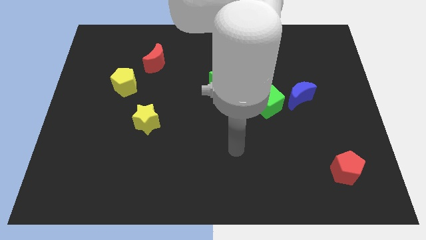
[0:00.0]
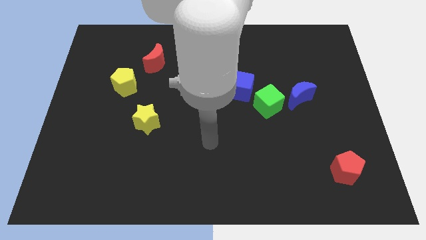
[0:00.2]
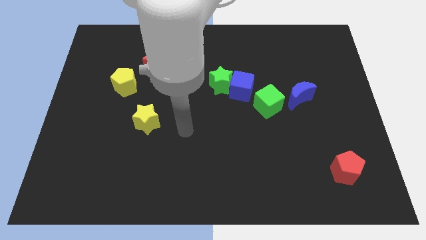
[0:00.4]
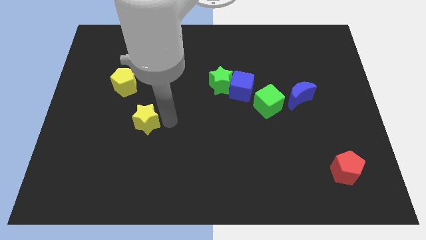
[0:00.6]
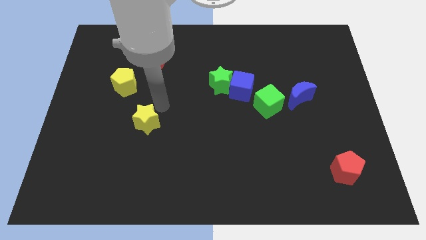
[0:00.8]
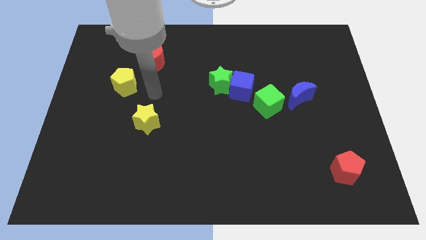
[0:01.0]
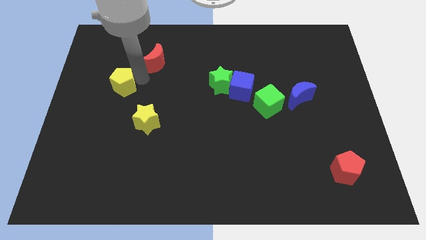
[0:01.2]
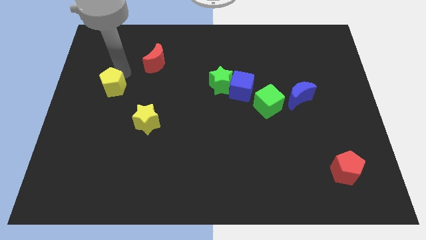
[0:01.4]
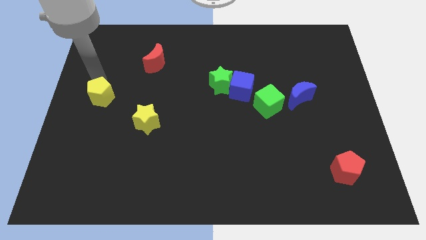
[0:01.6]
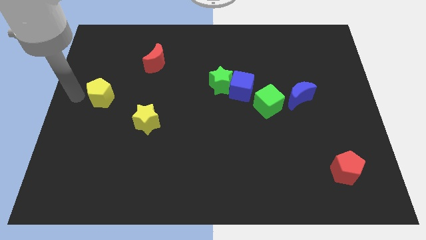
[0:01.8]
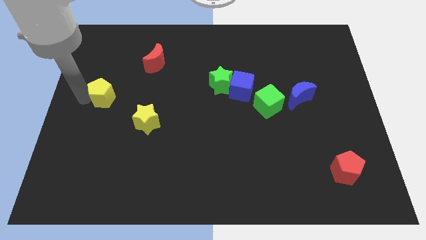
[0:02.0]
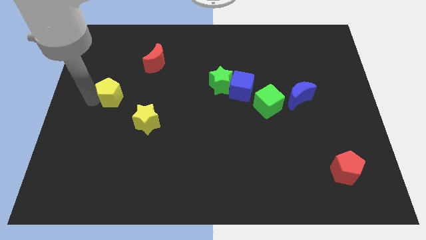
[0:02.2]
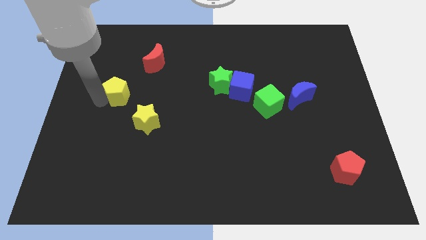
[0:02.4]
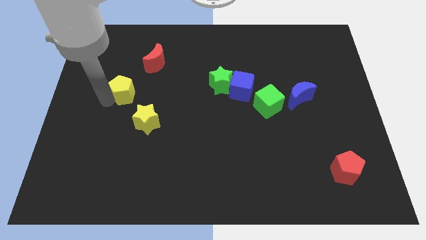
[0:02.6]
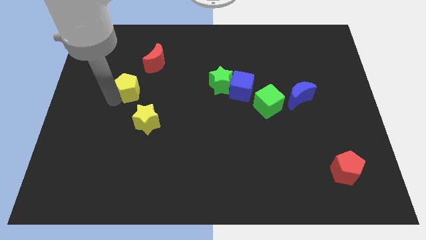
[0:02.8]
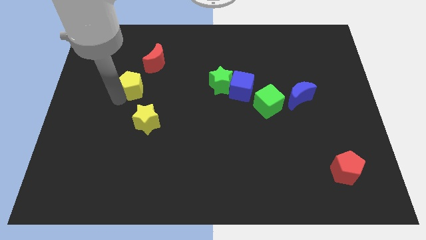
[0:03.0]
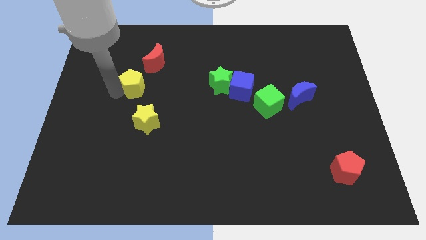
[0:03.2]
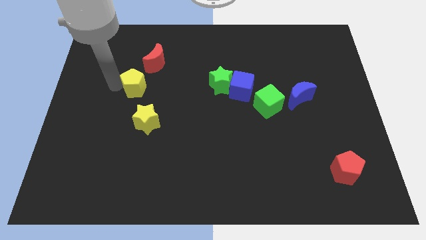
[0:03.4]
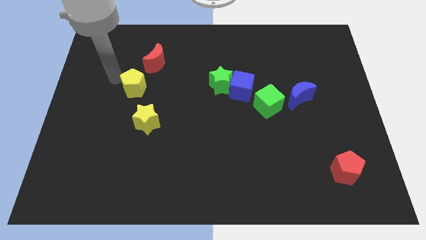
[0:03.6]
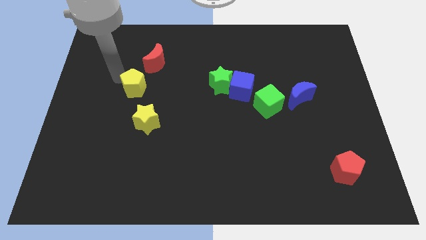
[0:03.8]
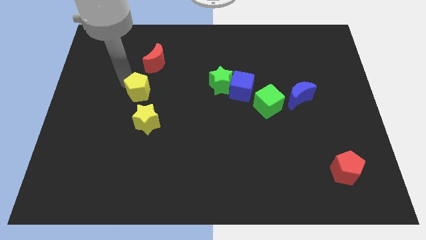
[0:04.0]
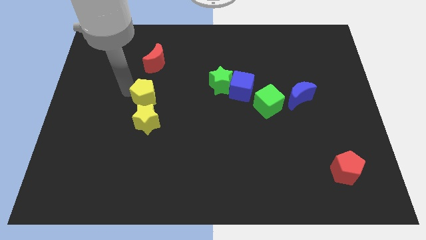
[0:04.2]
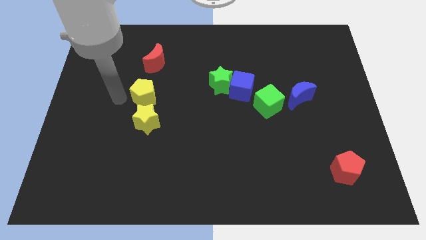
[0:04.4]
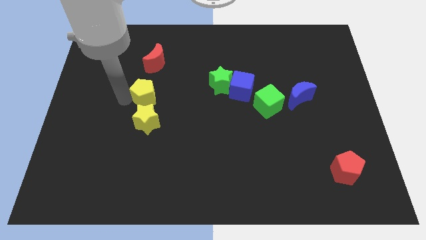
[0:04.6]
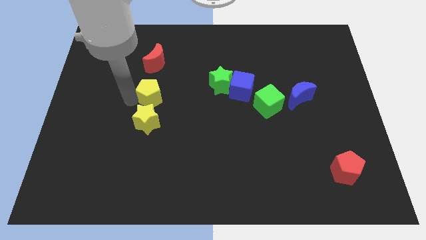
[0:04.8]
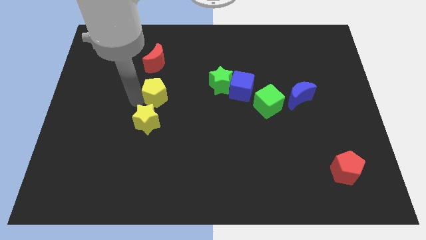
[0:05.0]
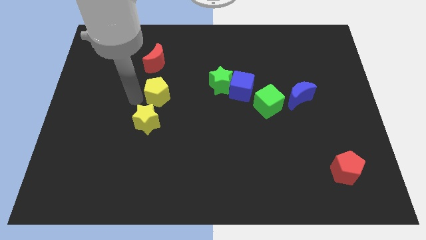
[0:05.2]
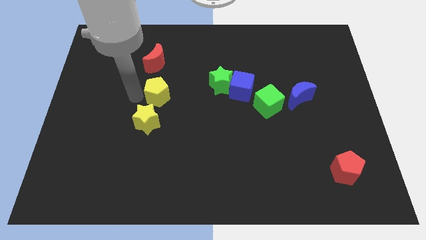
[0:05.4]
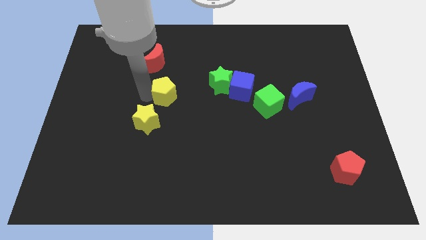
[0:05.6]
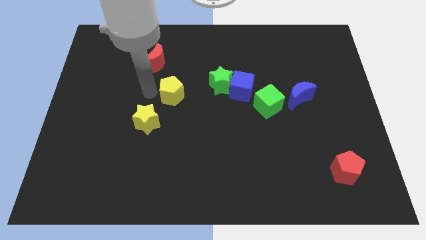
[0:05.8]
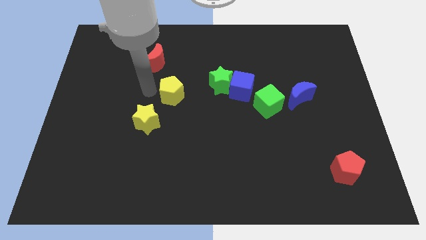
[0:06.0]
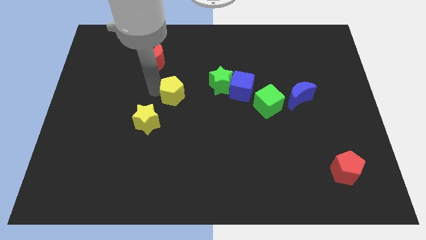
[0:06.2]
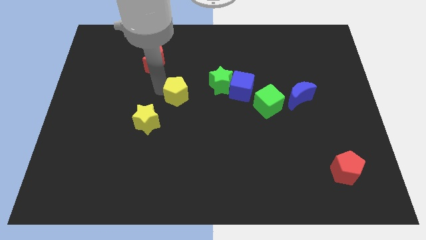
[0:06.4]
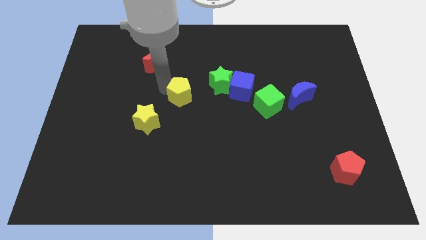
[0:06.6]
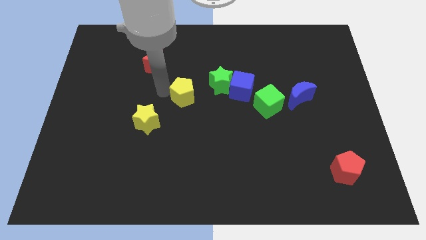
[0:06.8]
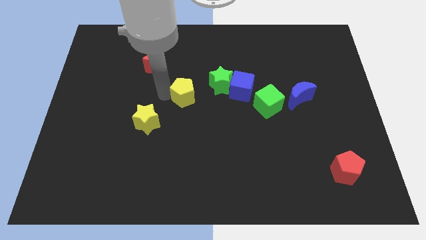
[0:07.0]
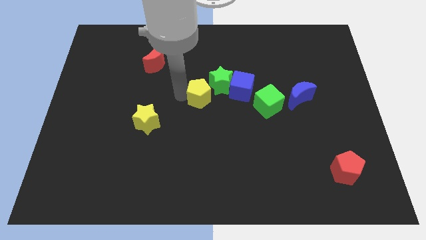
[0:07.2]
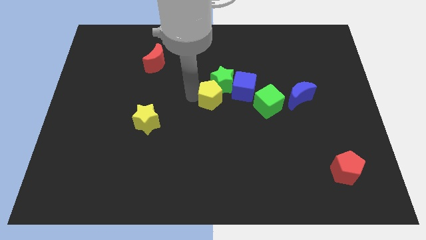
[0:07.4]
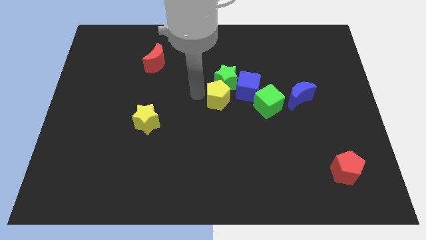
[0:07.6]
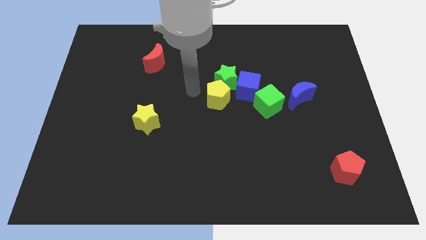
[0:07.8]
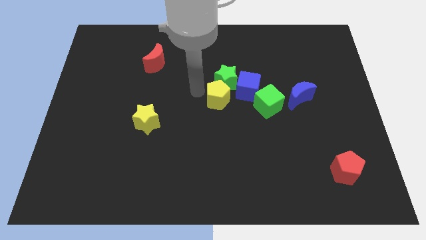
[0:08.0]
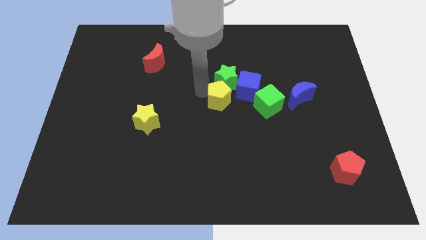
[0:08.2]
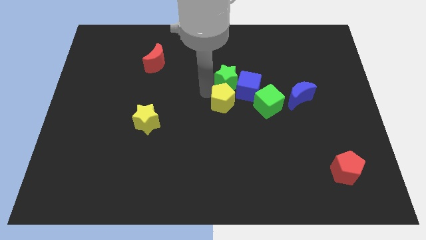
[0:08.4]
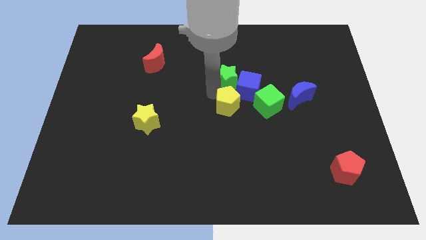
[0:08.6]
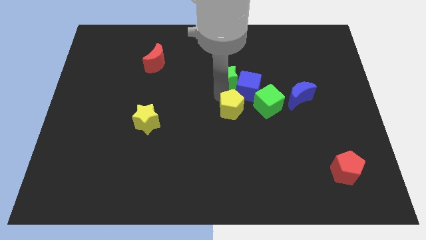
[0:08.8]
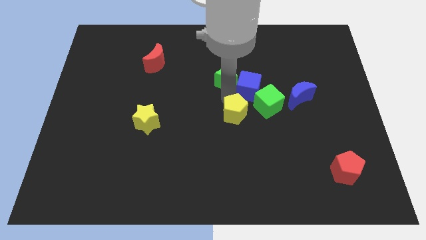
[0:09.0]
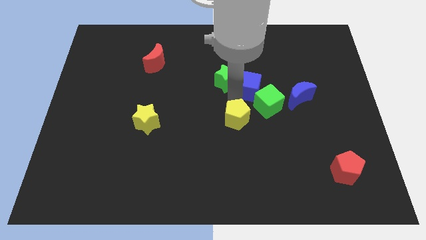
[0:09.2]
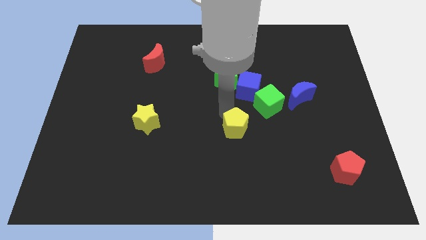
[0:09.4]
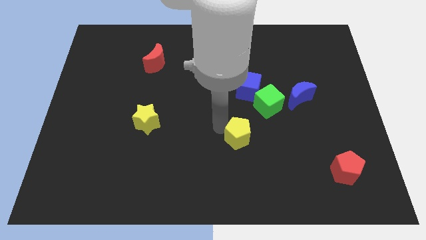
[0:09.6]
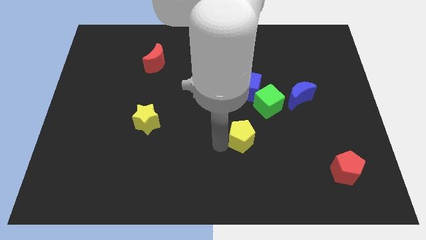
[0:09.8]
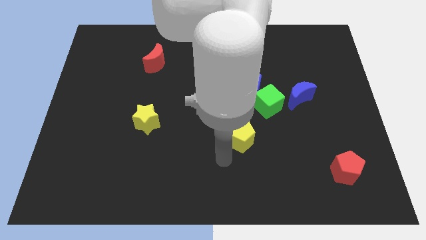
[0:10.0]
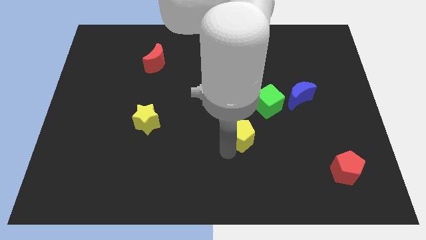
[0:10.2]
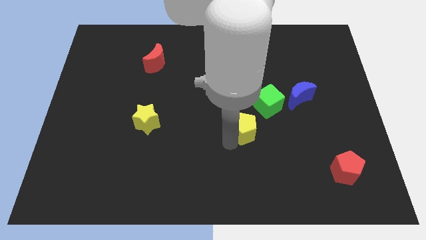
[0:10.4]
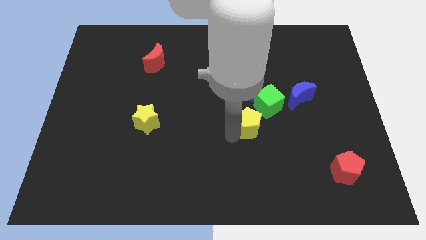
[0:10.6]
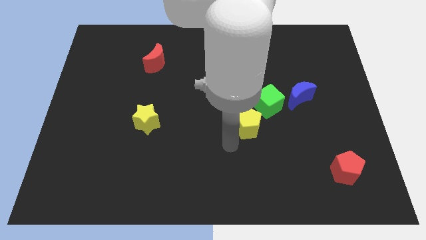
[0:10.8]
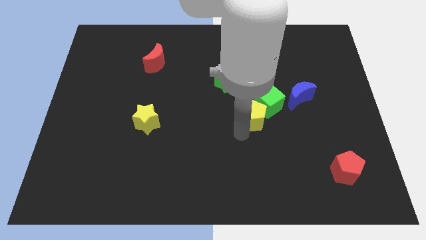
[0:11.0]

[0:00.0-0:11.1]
move the yellow pentagon to the green cube

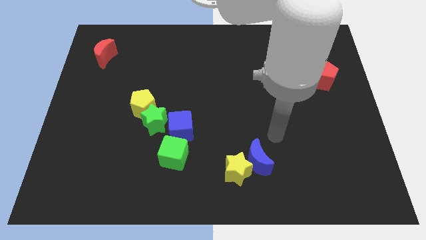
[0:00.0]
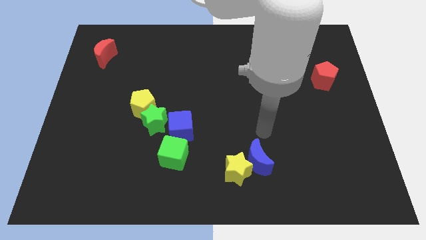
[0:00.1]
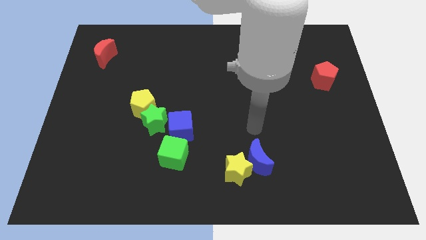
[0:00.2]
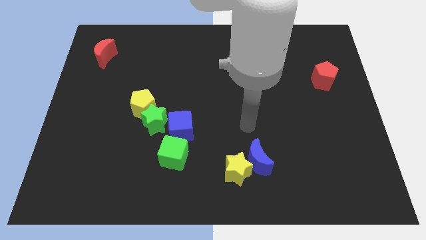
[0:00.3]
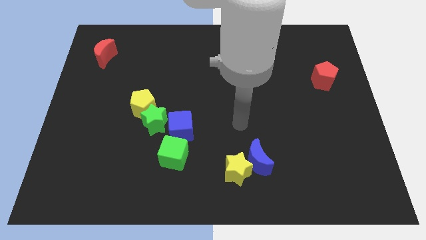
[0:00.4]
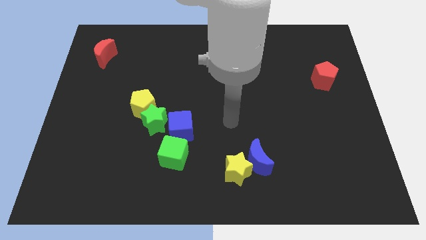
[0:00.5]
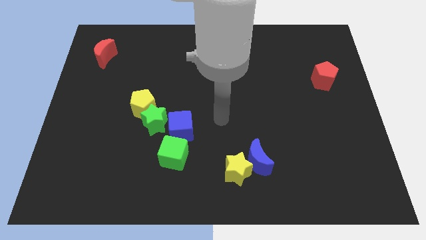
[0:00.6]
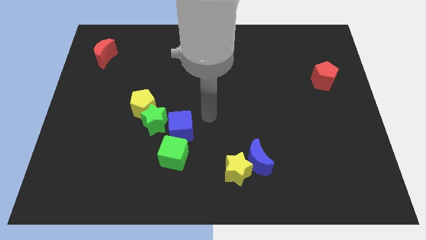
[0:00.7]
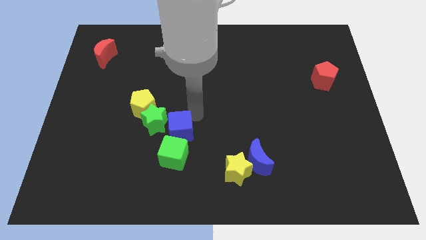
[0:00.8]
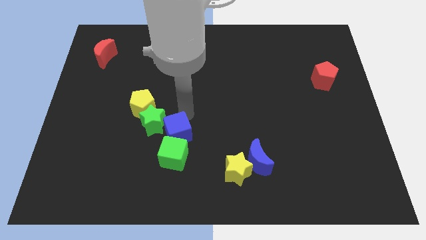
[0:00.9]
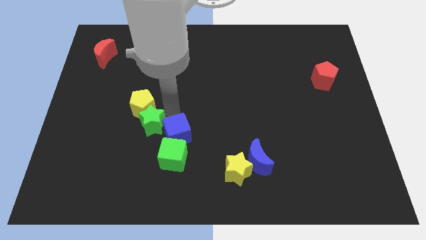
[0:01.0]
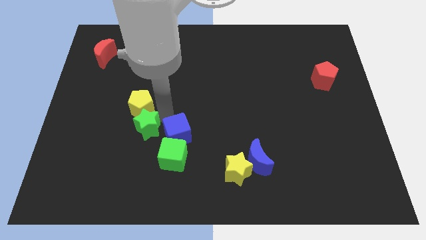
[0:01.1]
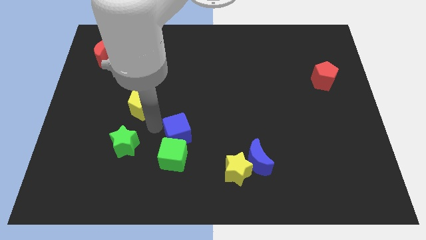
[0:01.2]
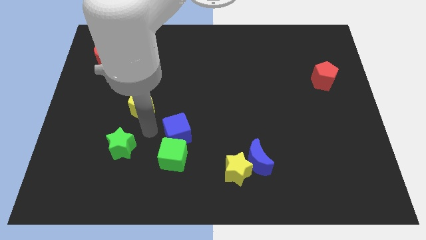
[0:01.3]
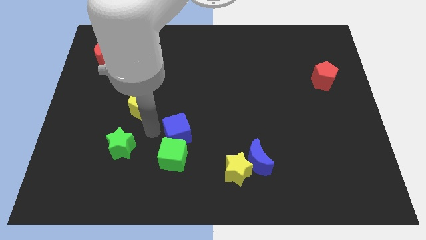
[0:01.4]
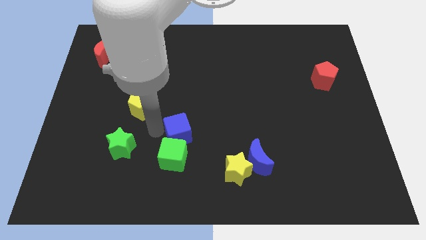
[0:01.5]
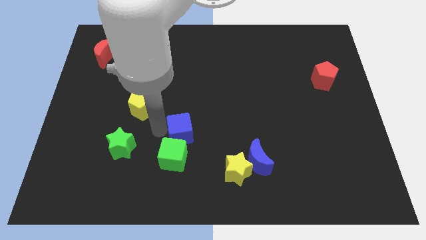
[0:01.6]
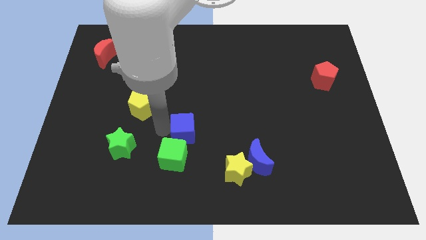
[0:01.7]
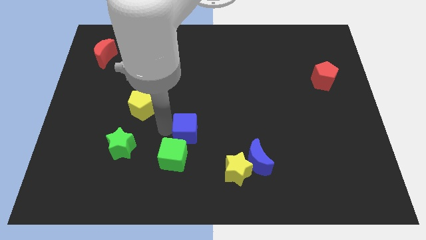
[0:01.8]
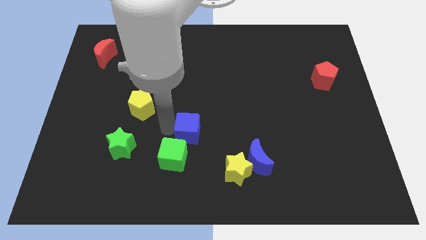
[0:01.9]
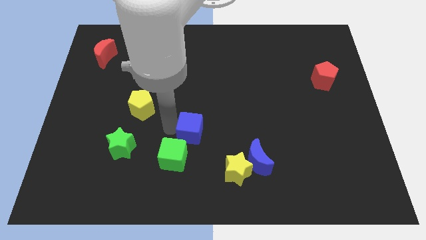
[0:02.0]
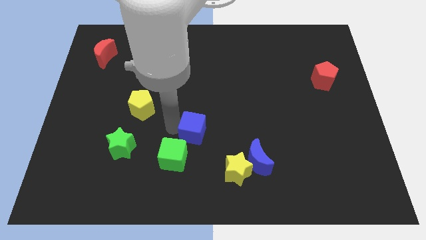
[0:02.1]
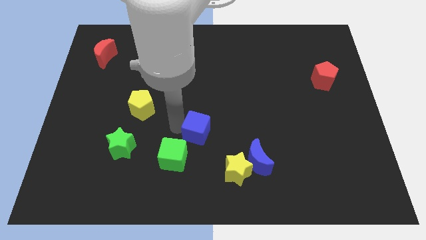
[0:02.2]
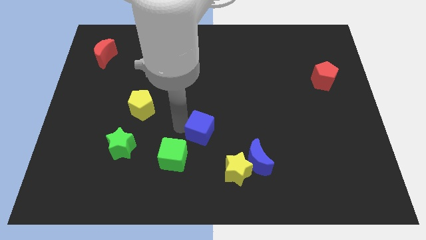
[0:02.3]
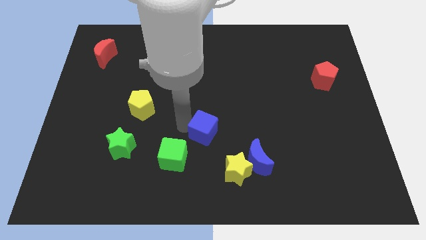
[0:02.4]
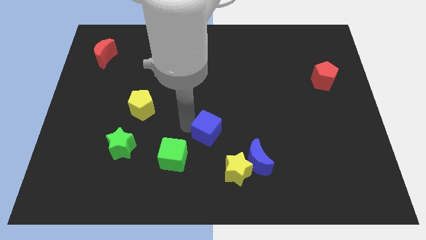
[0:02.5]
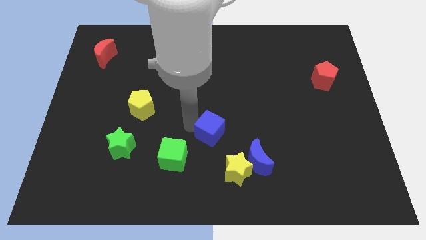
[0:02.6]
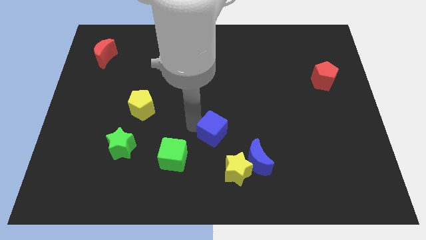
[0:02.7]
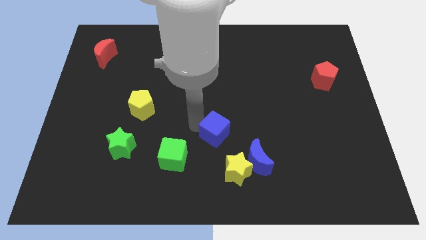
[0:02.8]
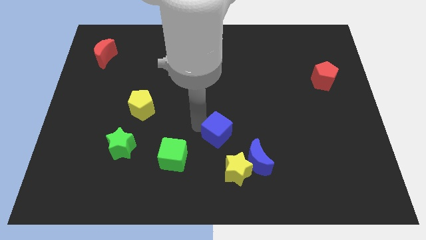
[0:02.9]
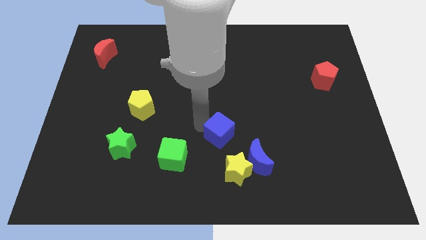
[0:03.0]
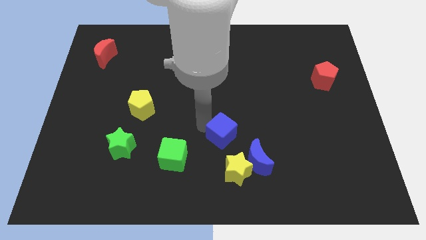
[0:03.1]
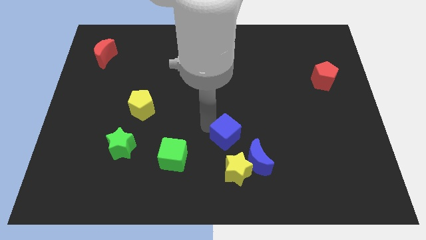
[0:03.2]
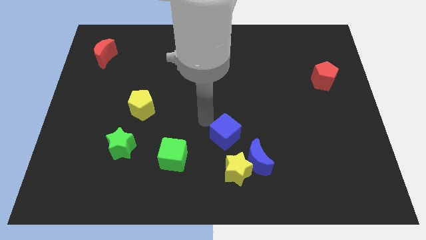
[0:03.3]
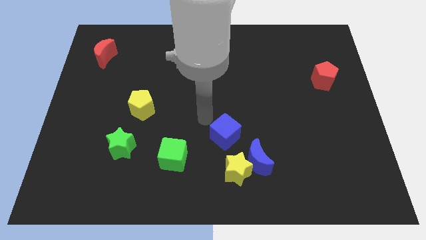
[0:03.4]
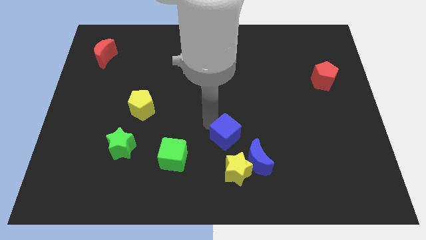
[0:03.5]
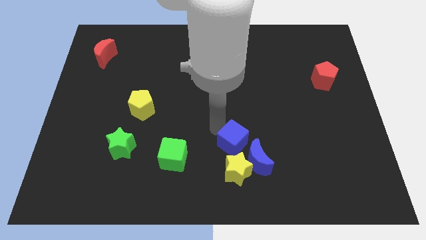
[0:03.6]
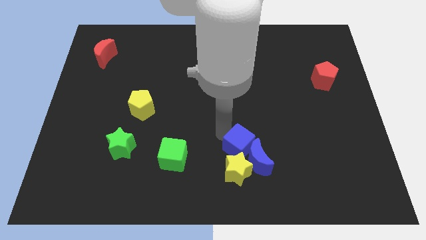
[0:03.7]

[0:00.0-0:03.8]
move the blue cube close to the blue moon
